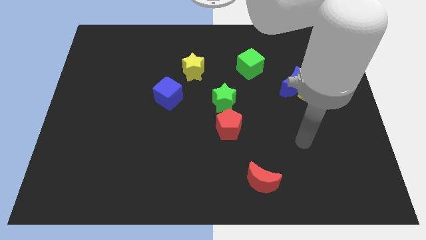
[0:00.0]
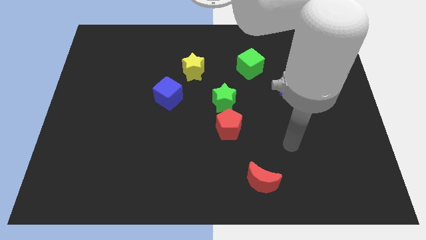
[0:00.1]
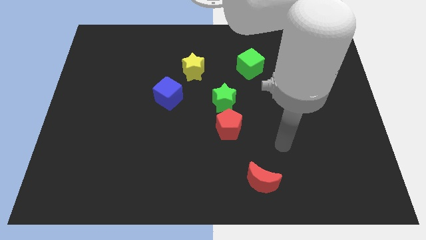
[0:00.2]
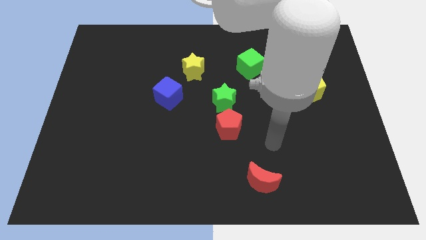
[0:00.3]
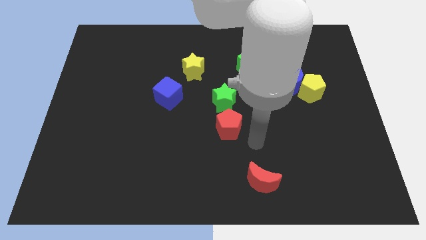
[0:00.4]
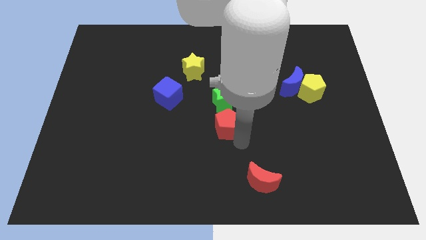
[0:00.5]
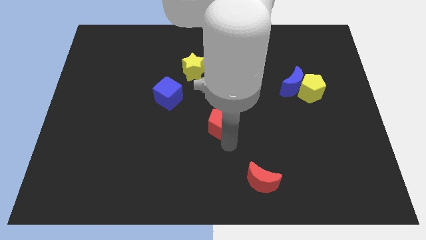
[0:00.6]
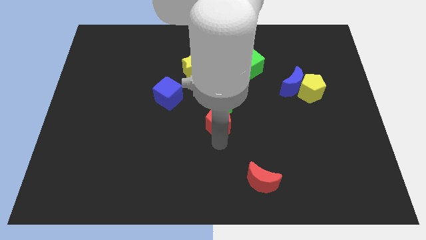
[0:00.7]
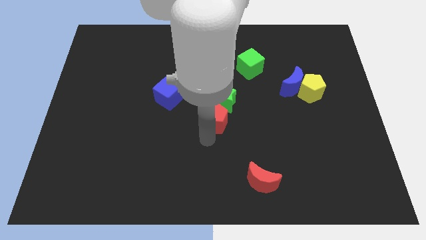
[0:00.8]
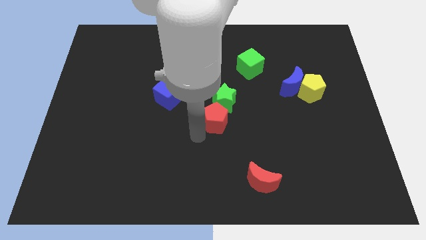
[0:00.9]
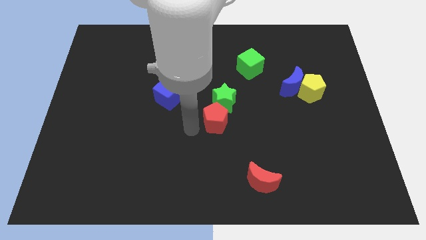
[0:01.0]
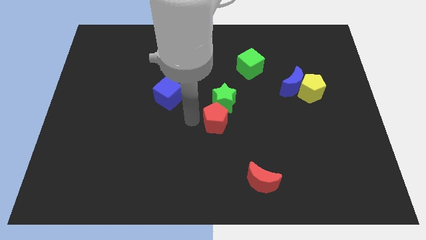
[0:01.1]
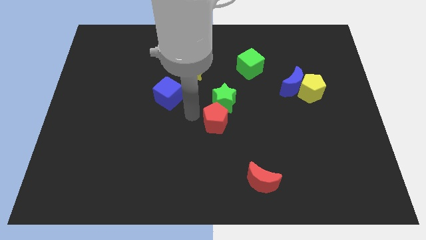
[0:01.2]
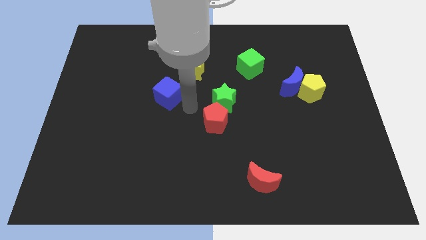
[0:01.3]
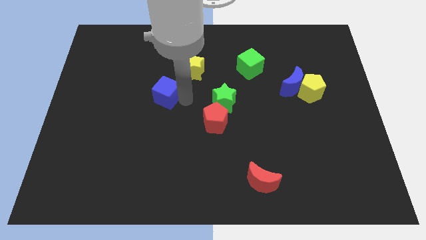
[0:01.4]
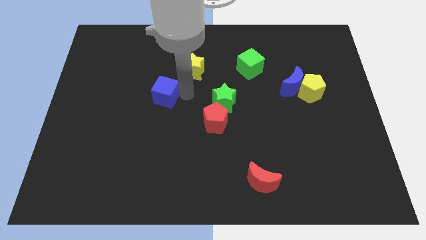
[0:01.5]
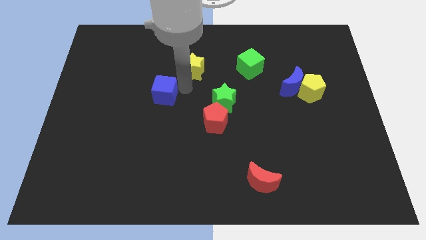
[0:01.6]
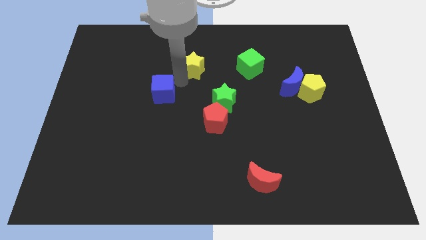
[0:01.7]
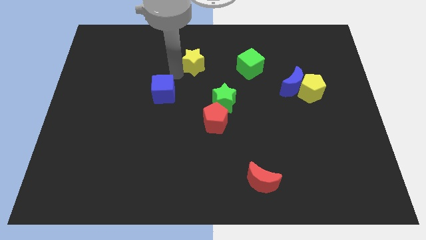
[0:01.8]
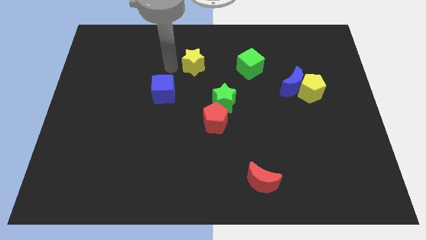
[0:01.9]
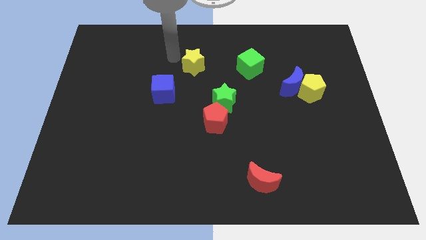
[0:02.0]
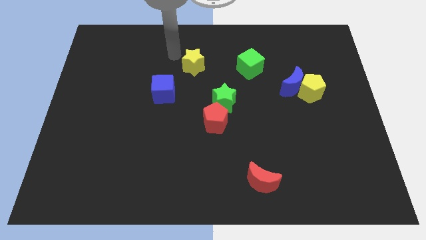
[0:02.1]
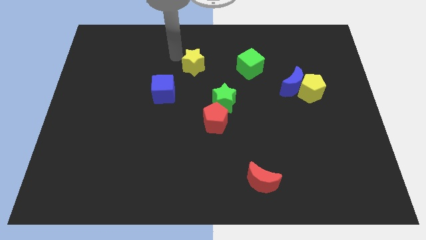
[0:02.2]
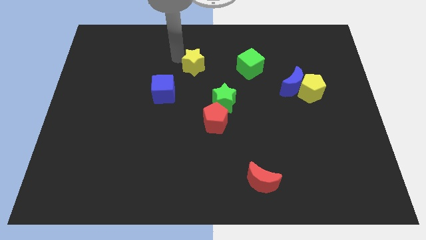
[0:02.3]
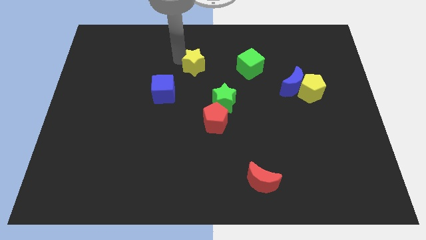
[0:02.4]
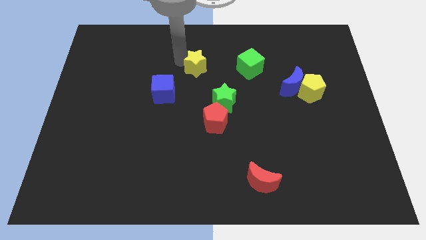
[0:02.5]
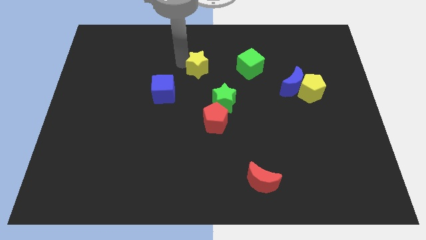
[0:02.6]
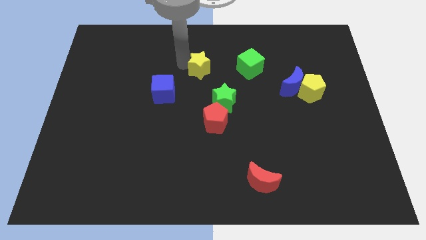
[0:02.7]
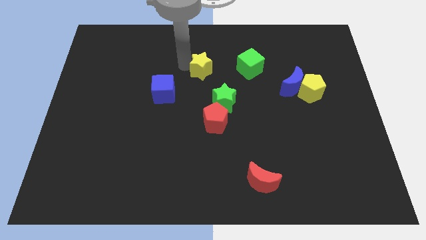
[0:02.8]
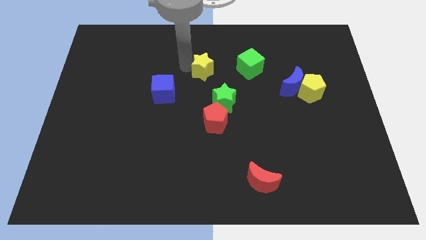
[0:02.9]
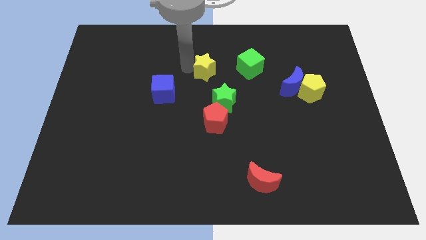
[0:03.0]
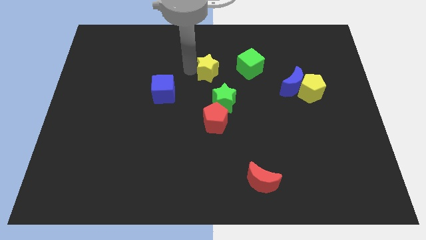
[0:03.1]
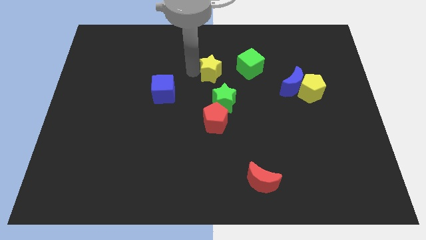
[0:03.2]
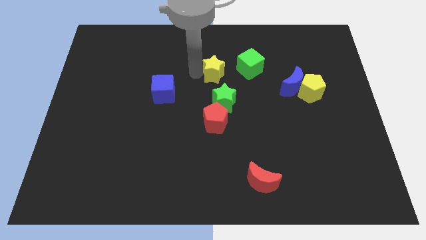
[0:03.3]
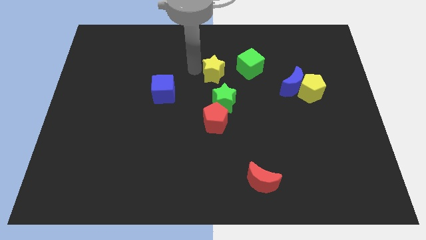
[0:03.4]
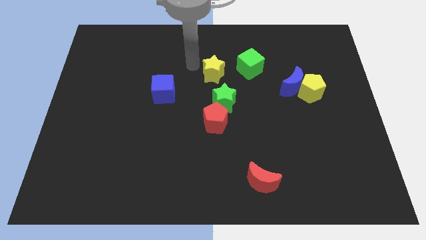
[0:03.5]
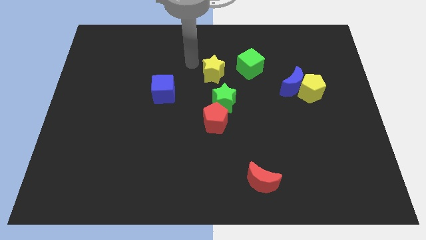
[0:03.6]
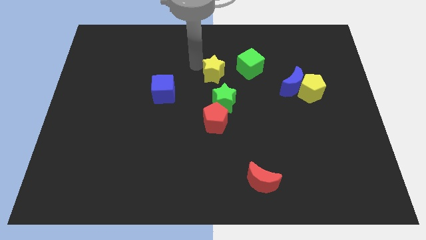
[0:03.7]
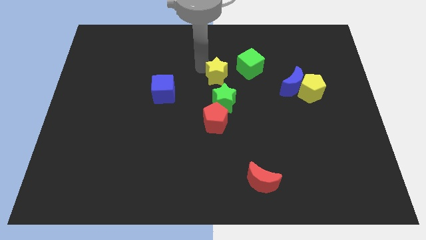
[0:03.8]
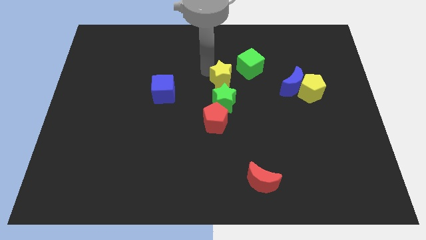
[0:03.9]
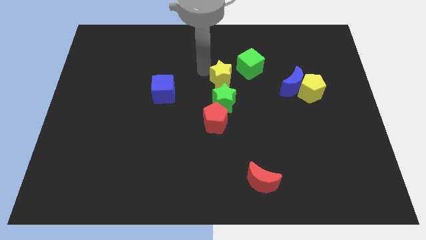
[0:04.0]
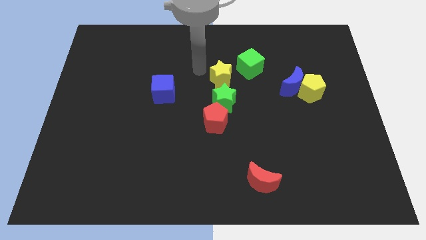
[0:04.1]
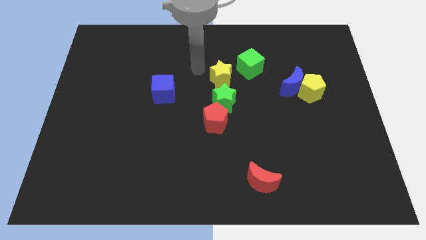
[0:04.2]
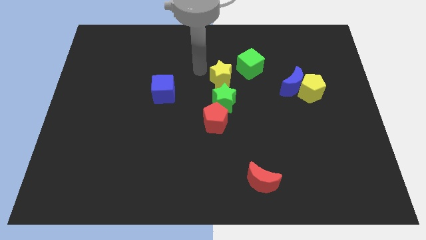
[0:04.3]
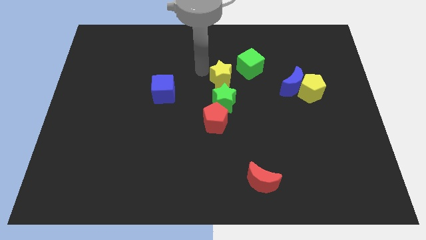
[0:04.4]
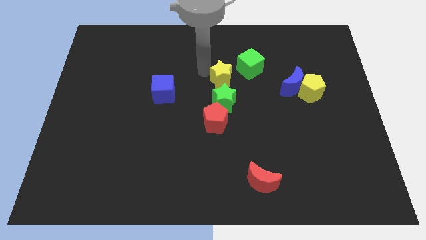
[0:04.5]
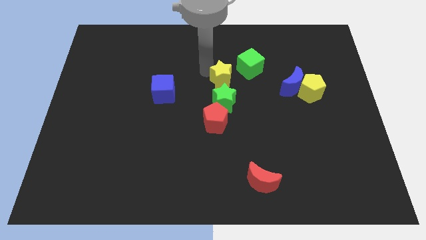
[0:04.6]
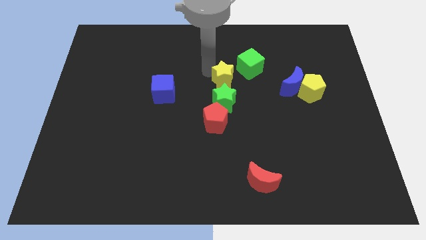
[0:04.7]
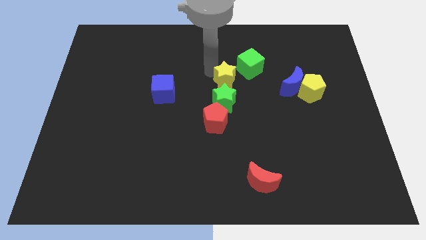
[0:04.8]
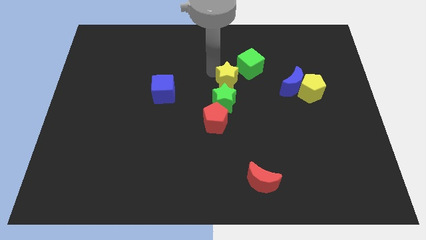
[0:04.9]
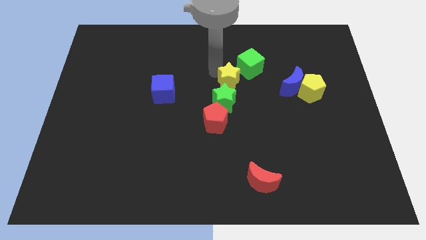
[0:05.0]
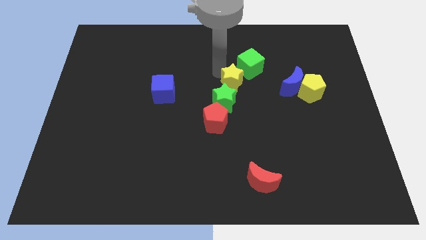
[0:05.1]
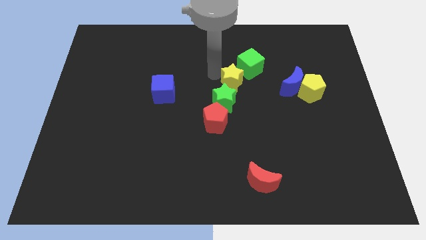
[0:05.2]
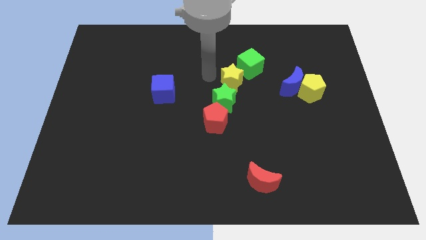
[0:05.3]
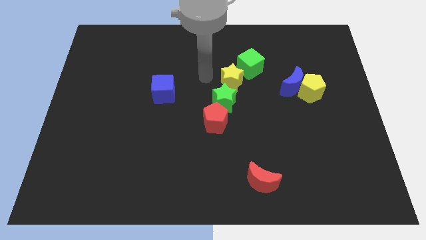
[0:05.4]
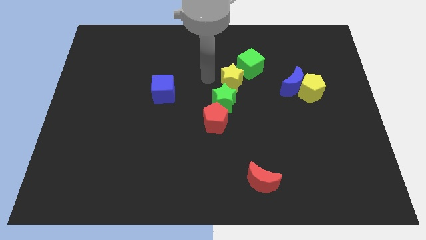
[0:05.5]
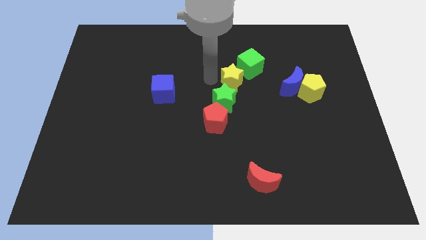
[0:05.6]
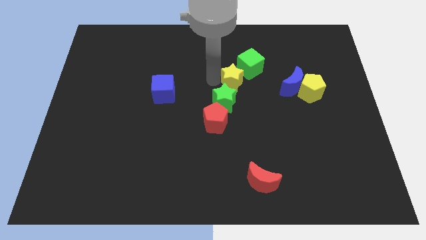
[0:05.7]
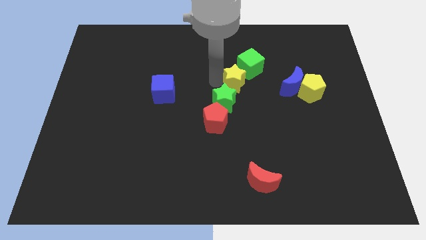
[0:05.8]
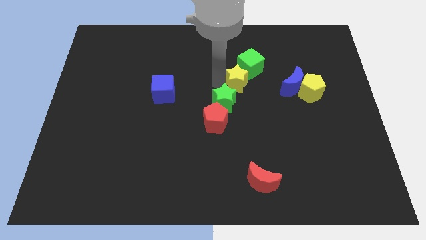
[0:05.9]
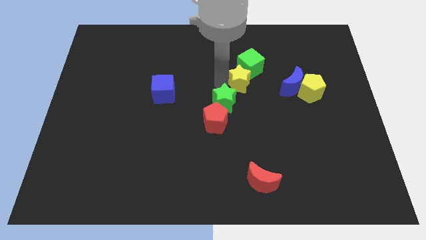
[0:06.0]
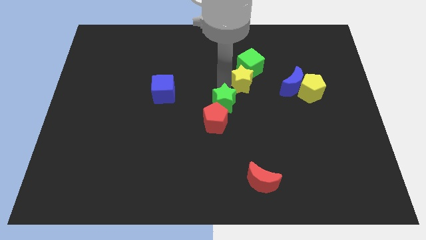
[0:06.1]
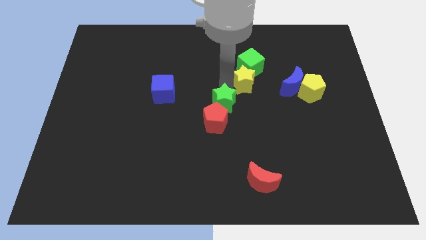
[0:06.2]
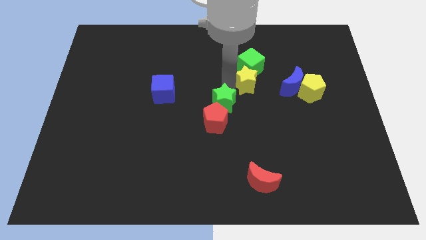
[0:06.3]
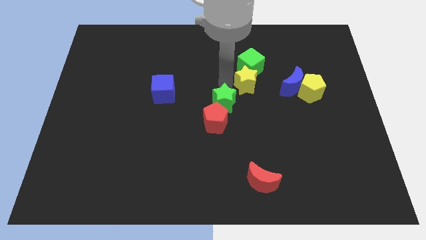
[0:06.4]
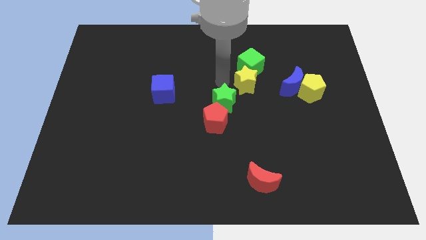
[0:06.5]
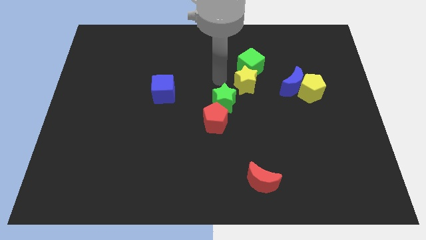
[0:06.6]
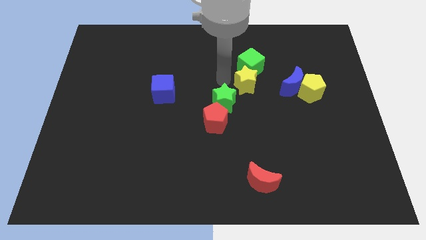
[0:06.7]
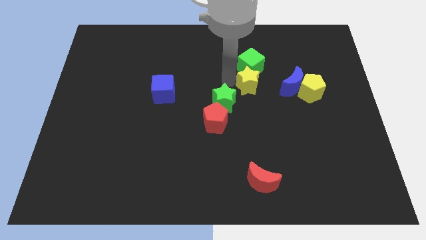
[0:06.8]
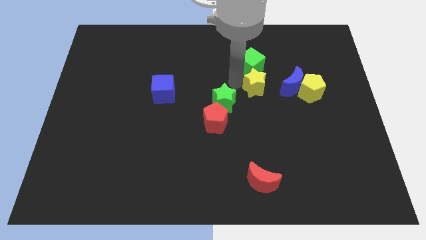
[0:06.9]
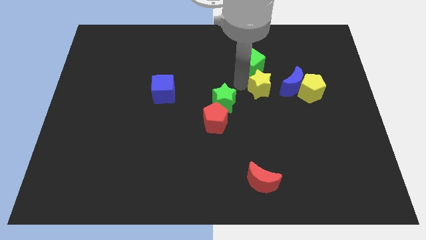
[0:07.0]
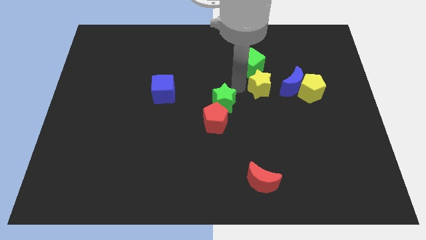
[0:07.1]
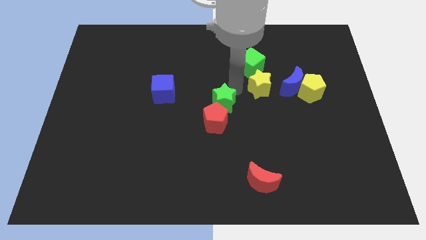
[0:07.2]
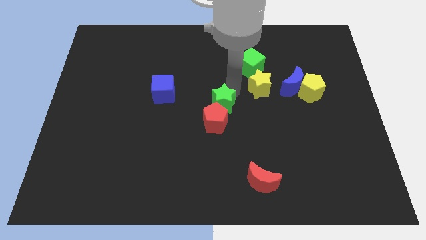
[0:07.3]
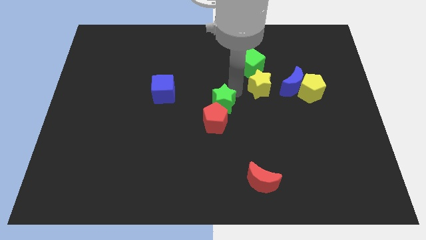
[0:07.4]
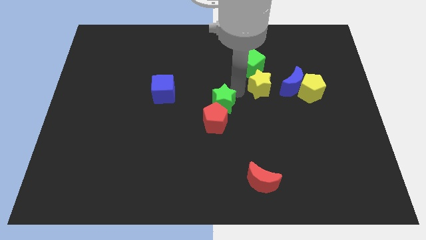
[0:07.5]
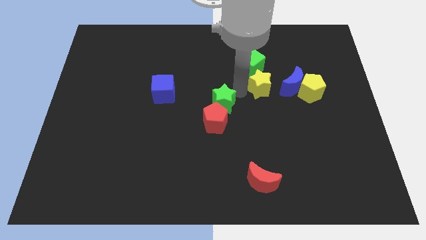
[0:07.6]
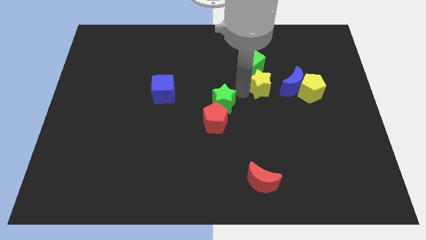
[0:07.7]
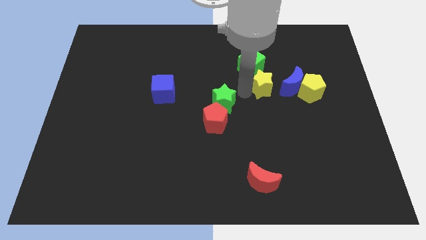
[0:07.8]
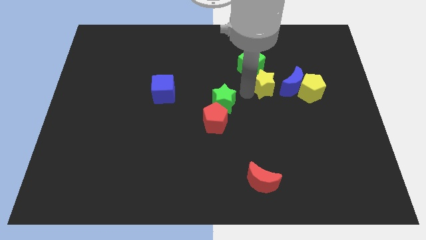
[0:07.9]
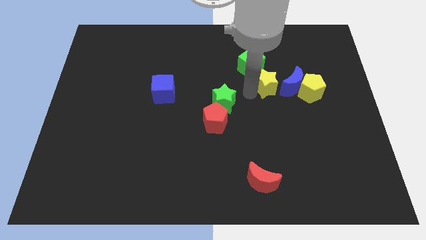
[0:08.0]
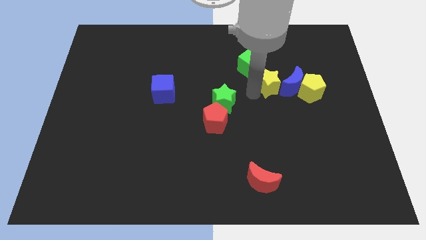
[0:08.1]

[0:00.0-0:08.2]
slide the yellow star close to the blue moon
